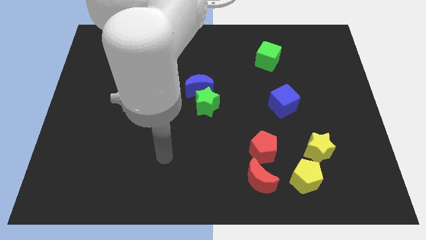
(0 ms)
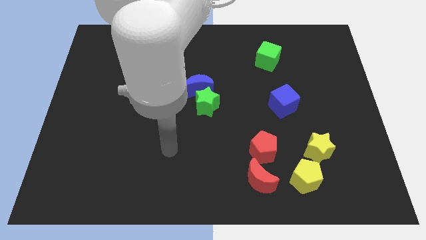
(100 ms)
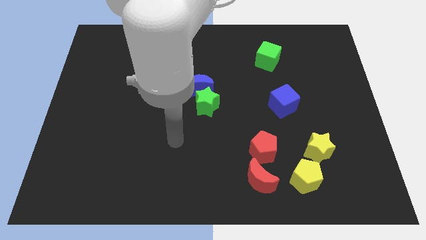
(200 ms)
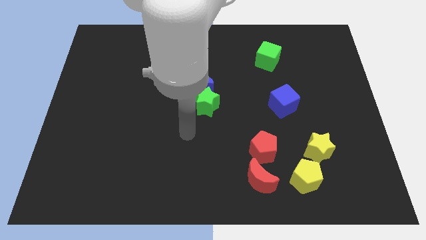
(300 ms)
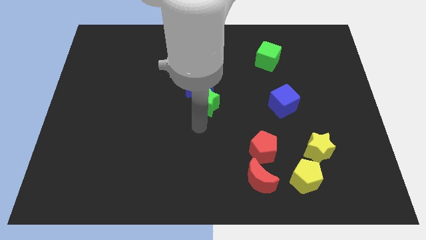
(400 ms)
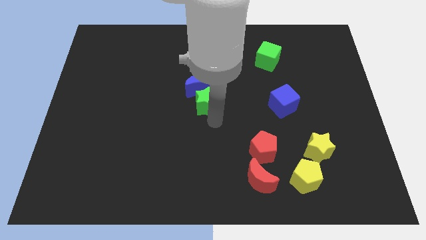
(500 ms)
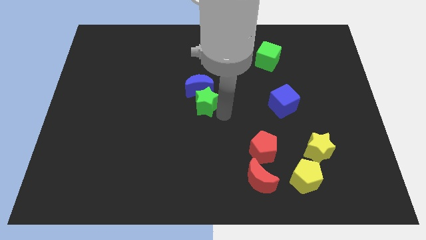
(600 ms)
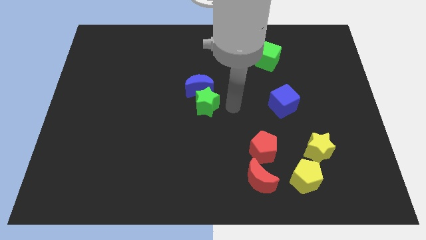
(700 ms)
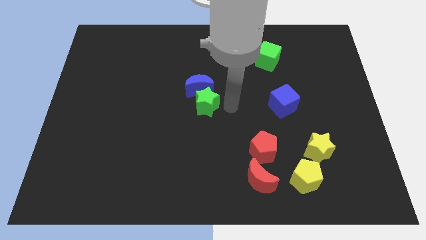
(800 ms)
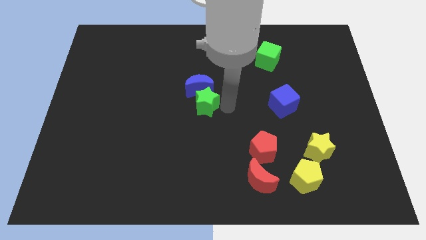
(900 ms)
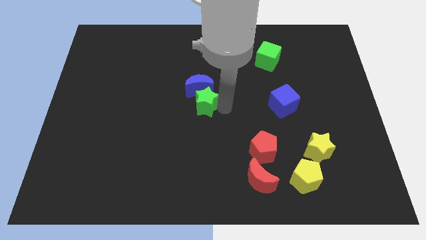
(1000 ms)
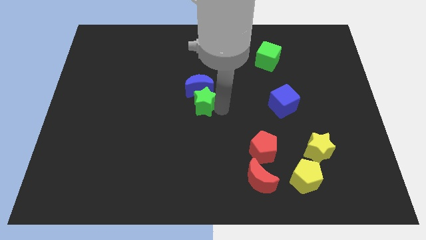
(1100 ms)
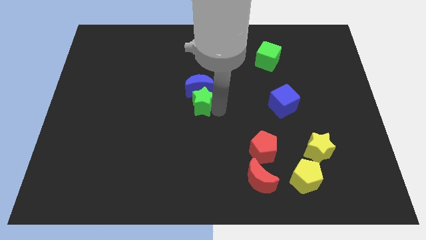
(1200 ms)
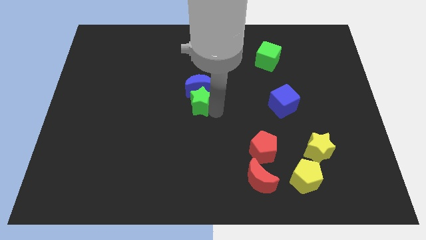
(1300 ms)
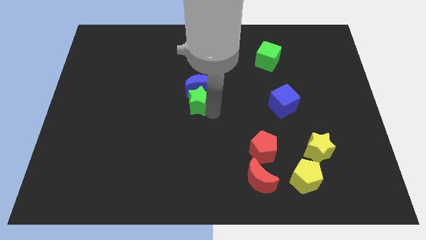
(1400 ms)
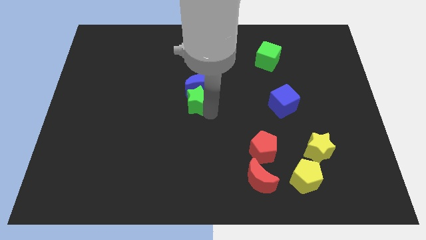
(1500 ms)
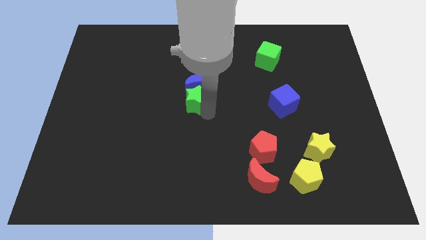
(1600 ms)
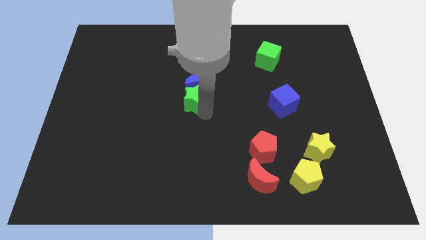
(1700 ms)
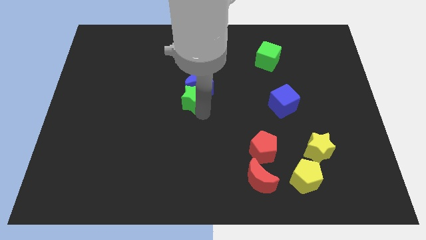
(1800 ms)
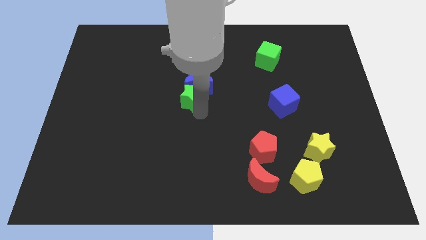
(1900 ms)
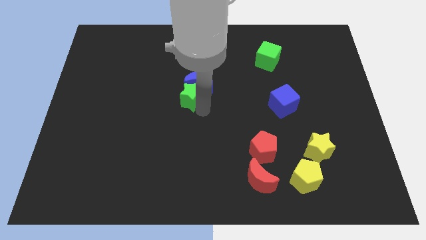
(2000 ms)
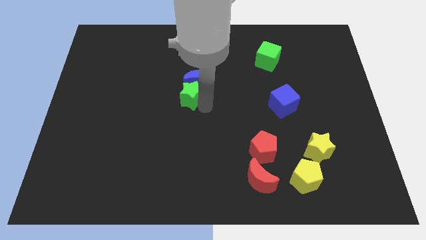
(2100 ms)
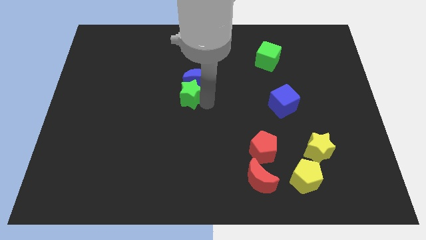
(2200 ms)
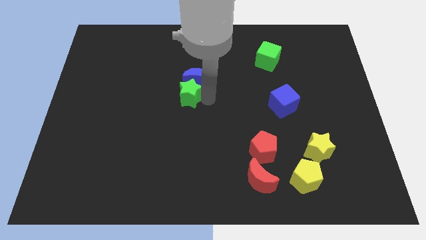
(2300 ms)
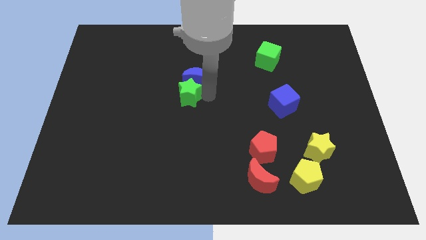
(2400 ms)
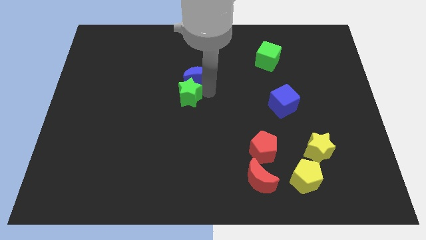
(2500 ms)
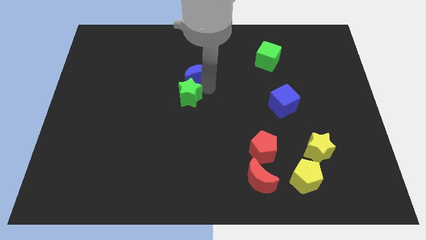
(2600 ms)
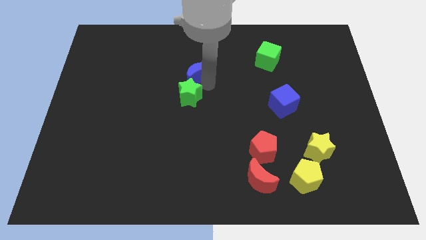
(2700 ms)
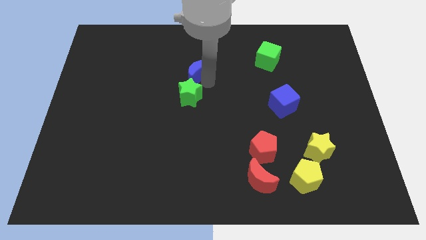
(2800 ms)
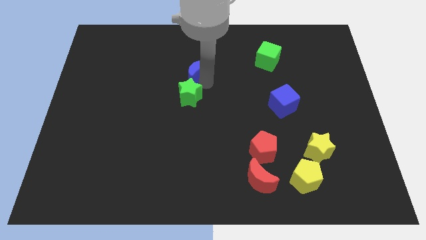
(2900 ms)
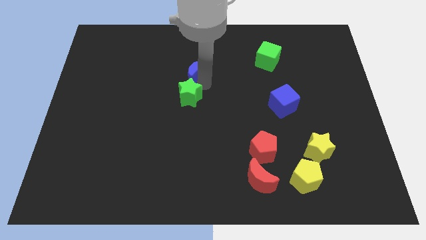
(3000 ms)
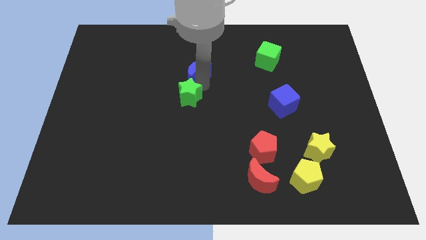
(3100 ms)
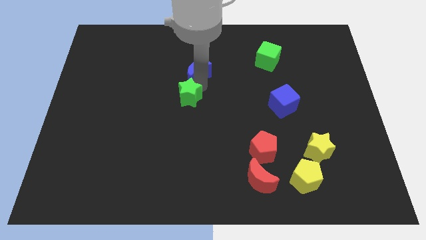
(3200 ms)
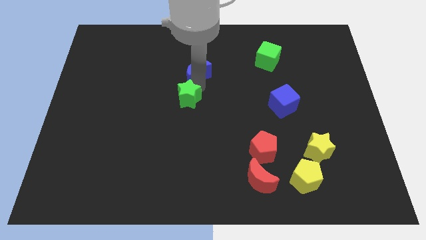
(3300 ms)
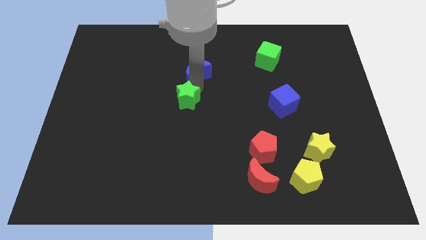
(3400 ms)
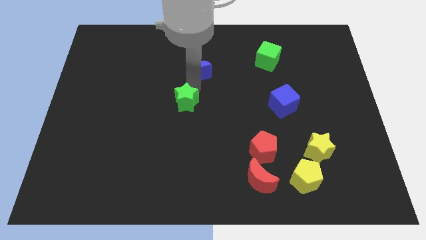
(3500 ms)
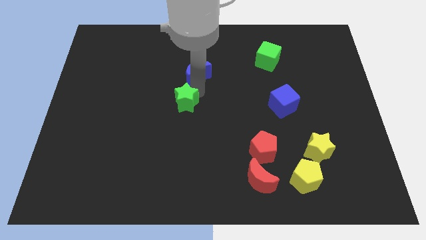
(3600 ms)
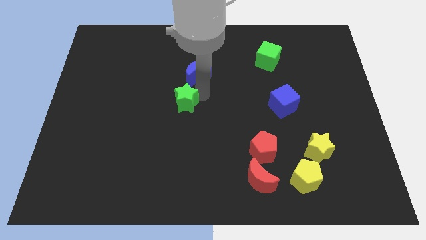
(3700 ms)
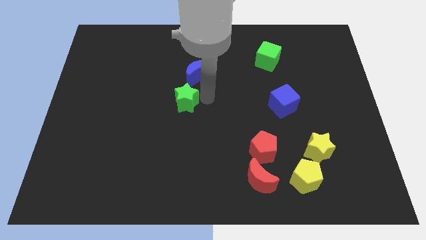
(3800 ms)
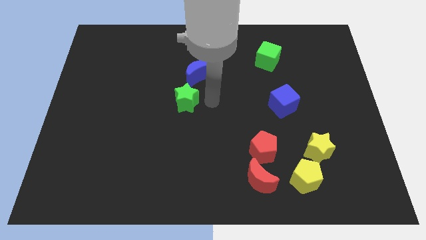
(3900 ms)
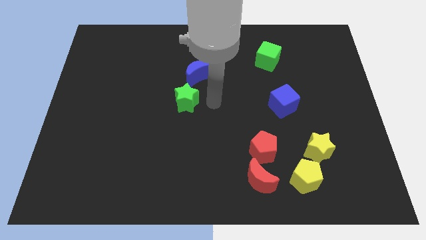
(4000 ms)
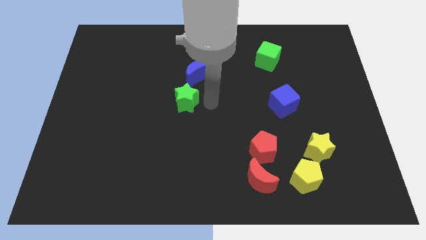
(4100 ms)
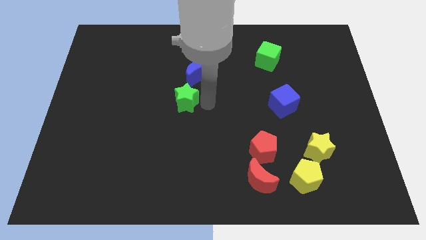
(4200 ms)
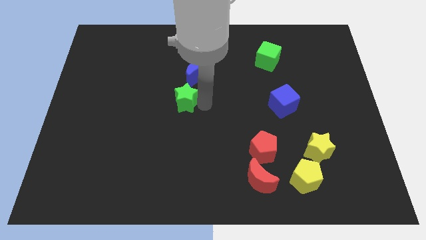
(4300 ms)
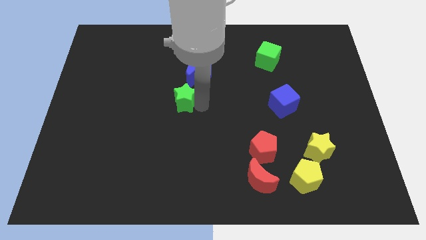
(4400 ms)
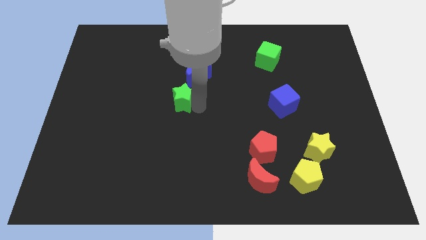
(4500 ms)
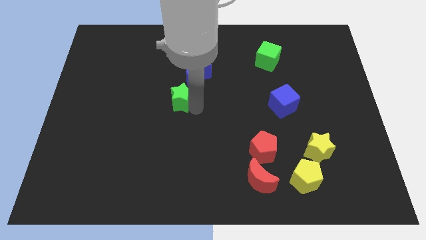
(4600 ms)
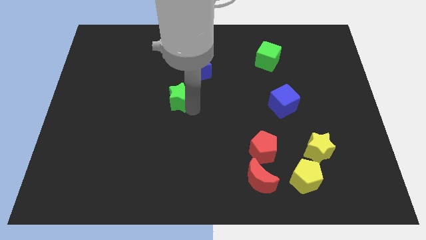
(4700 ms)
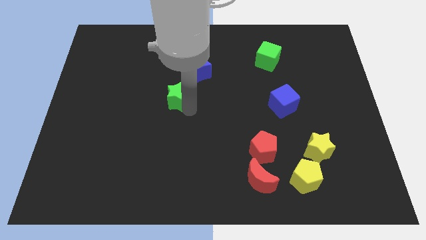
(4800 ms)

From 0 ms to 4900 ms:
slightly move the green star left

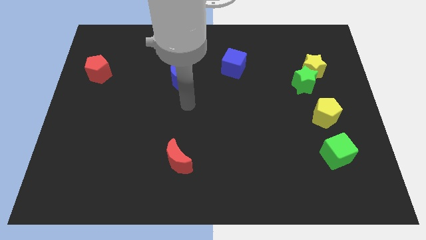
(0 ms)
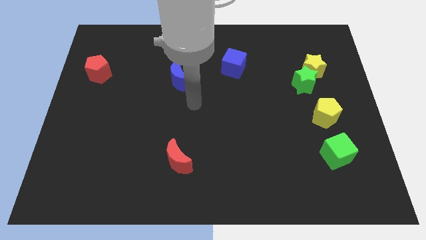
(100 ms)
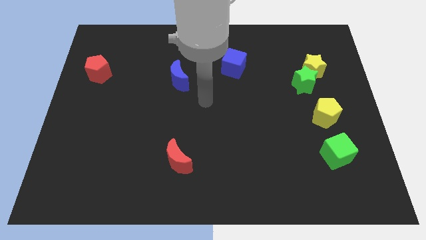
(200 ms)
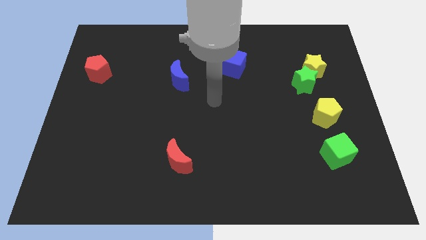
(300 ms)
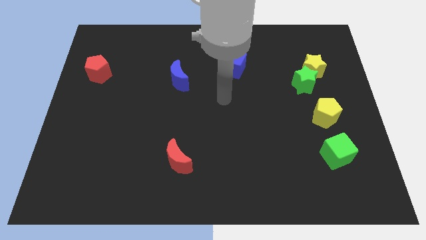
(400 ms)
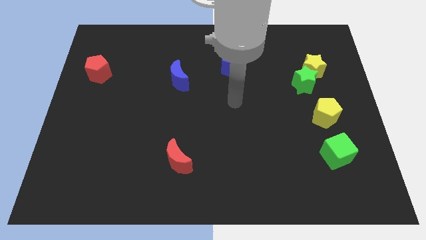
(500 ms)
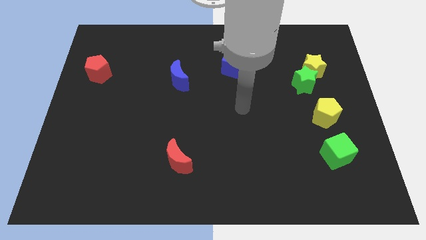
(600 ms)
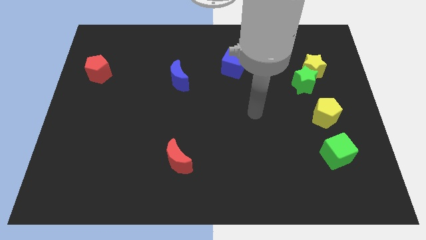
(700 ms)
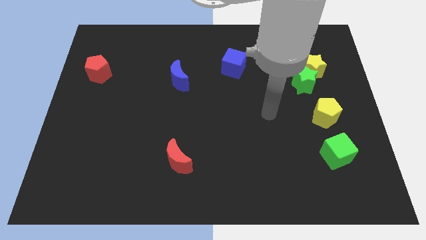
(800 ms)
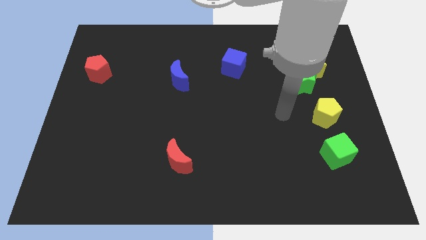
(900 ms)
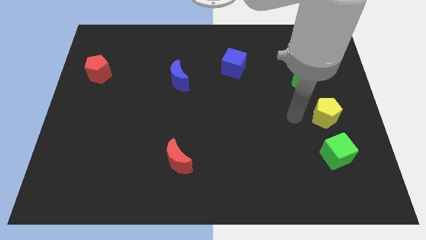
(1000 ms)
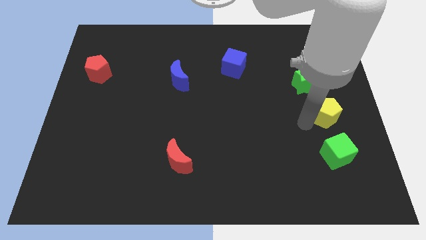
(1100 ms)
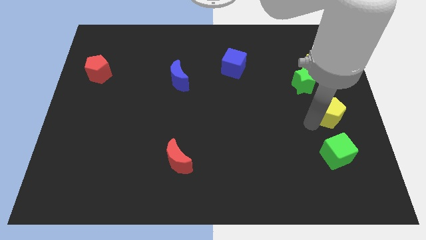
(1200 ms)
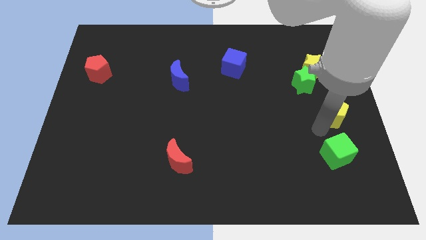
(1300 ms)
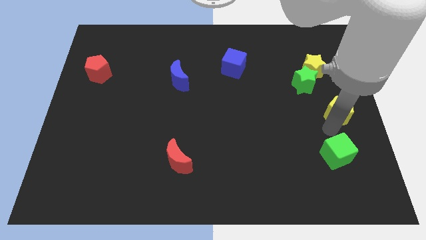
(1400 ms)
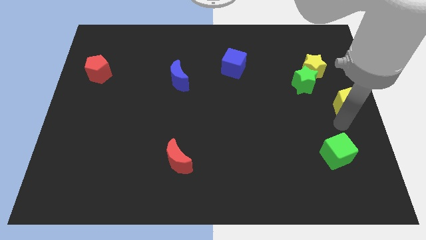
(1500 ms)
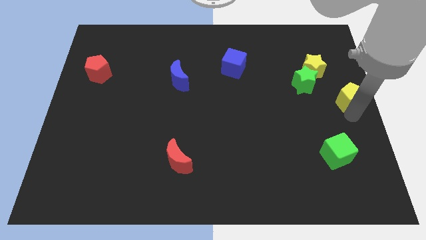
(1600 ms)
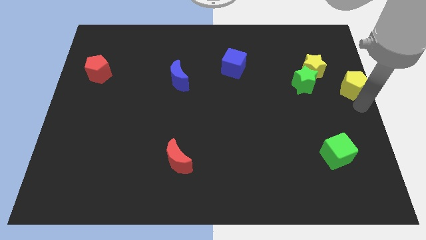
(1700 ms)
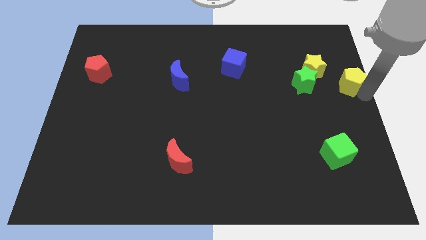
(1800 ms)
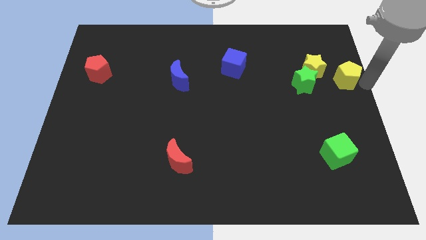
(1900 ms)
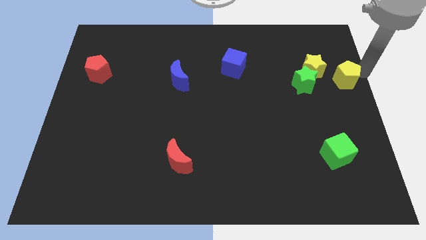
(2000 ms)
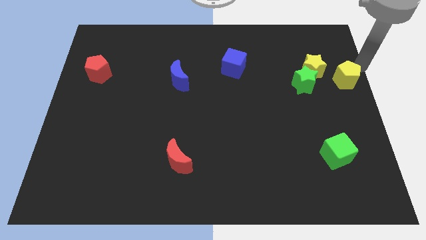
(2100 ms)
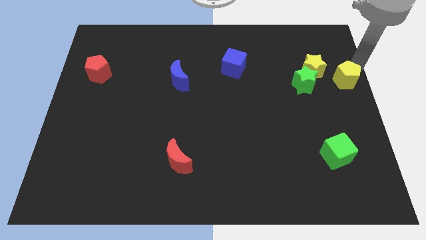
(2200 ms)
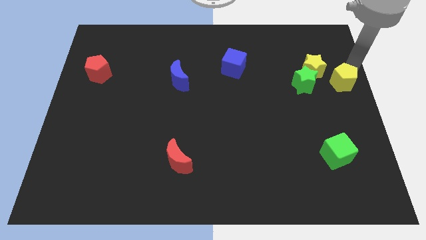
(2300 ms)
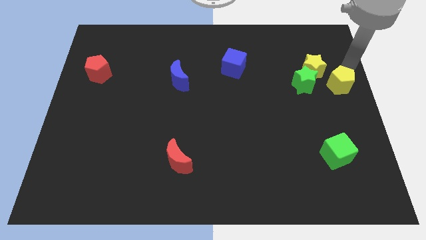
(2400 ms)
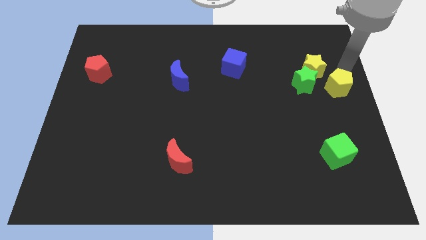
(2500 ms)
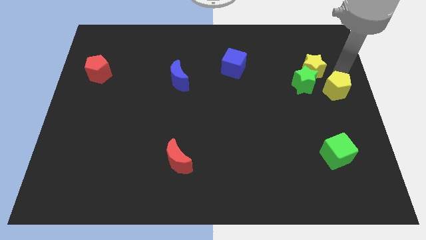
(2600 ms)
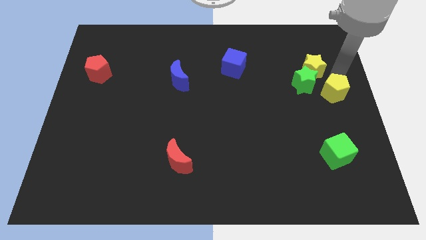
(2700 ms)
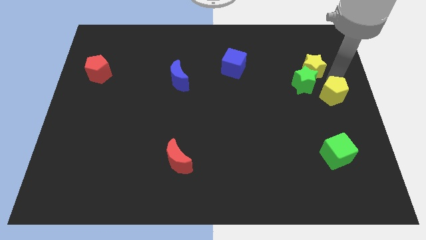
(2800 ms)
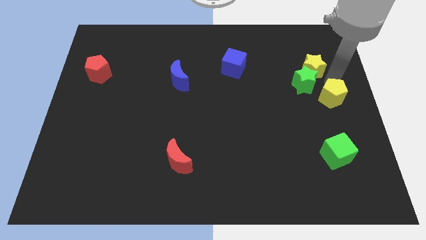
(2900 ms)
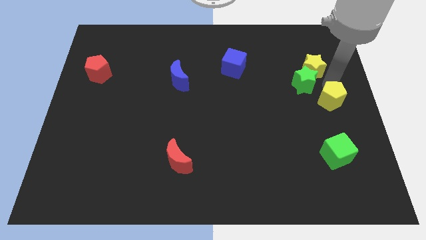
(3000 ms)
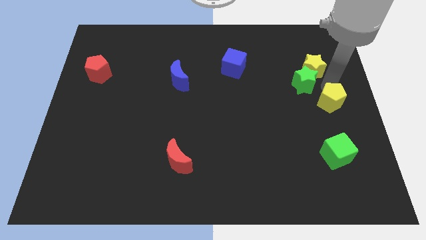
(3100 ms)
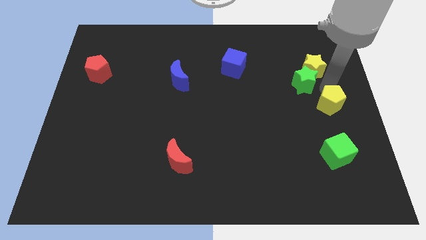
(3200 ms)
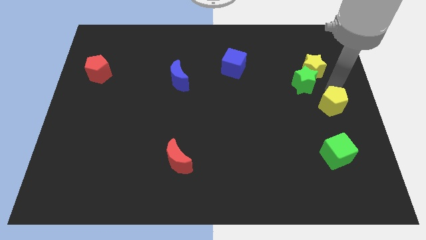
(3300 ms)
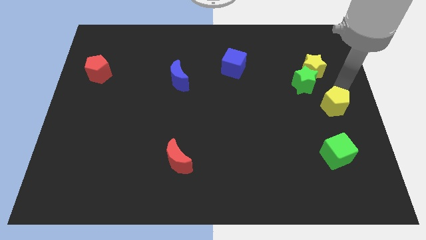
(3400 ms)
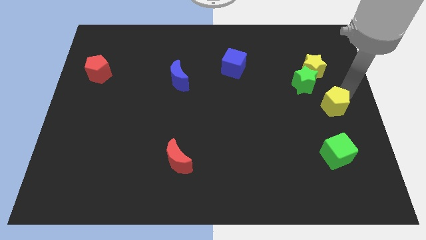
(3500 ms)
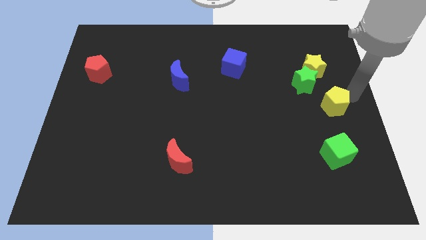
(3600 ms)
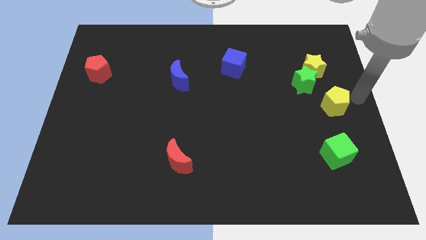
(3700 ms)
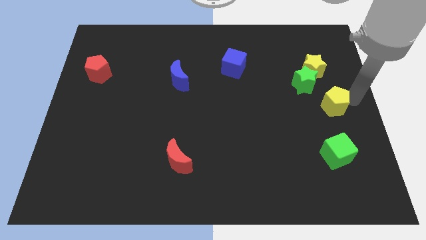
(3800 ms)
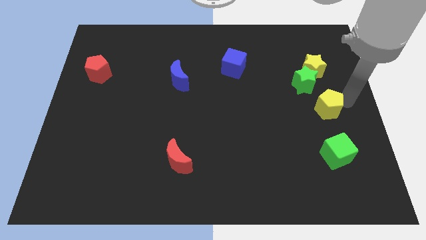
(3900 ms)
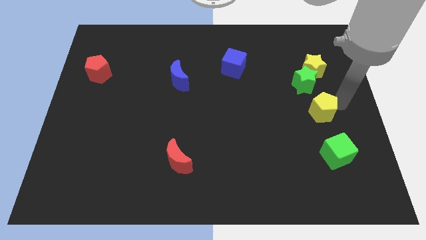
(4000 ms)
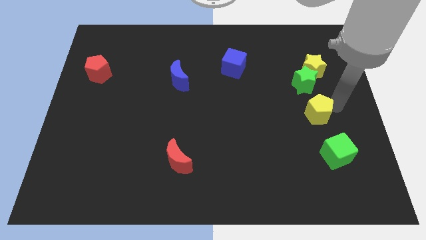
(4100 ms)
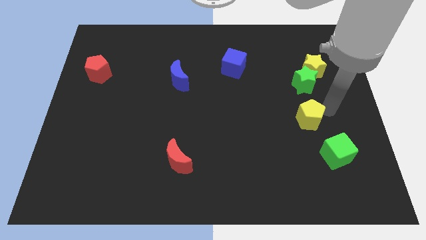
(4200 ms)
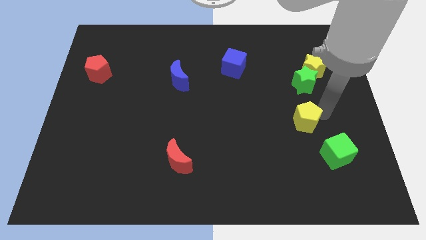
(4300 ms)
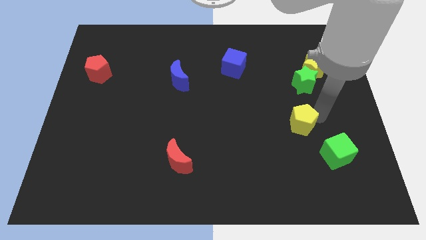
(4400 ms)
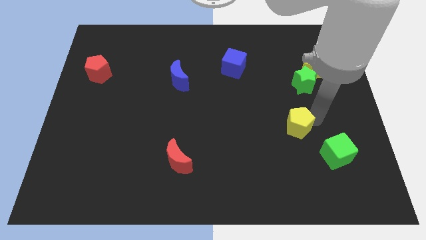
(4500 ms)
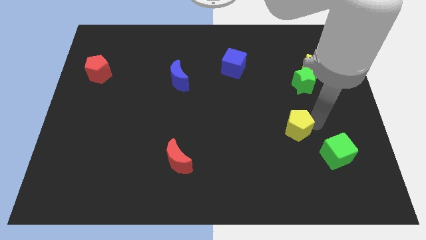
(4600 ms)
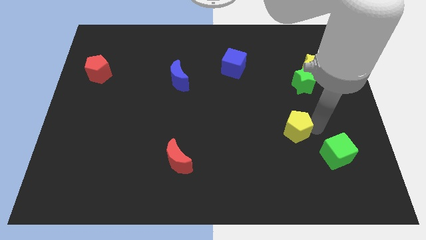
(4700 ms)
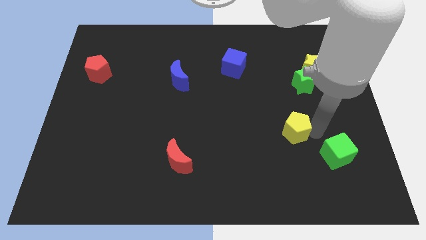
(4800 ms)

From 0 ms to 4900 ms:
push the yellow pentagon to the left a little
